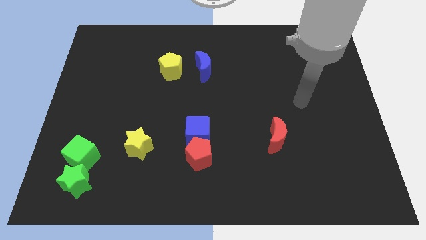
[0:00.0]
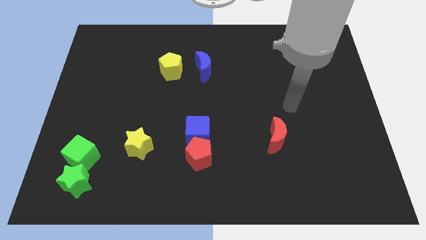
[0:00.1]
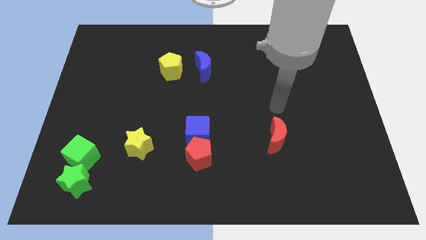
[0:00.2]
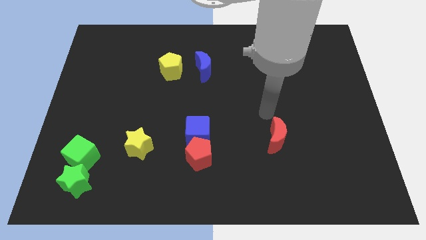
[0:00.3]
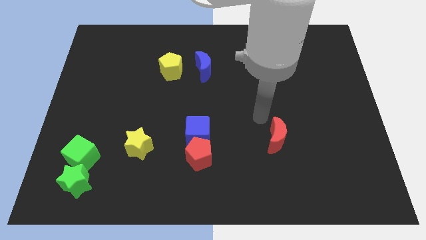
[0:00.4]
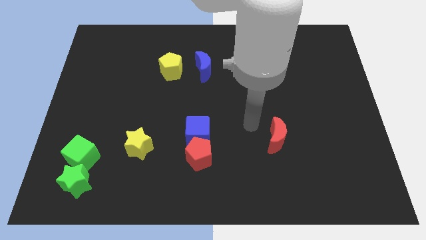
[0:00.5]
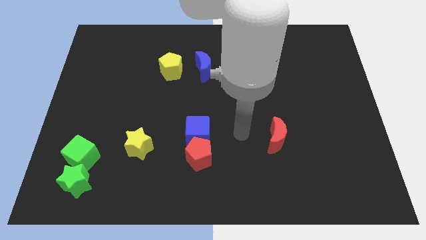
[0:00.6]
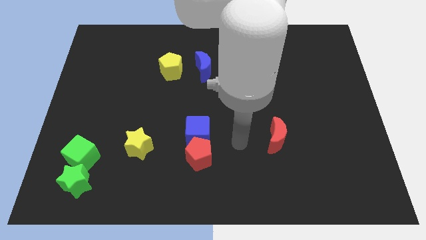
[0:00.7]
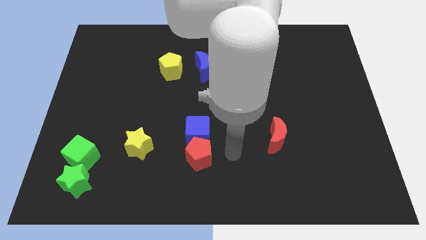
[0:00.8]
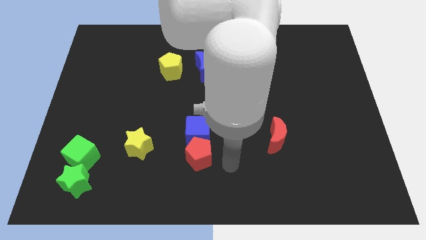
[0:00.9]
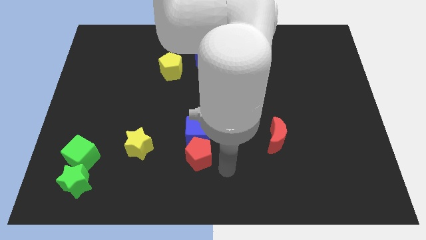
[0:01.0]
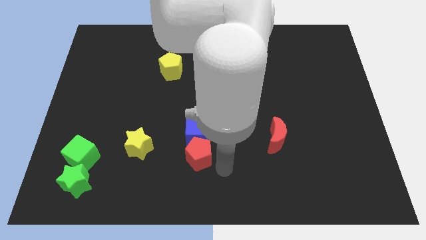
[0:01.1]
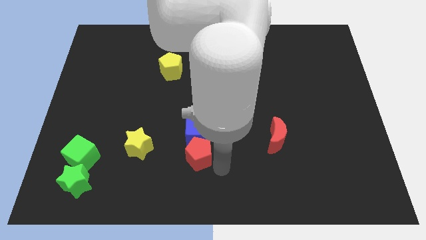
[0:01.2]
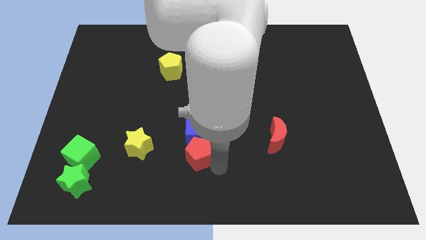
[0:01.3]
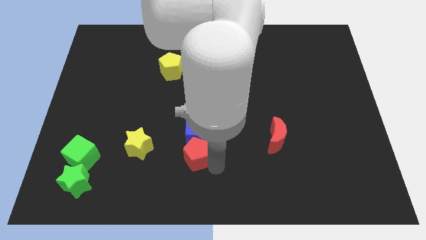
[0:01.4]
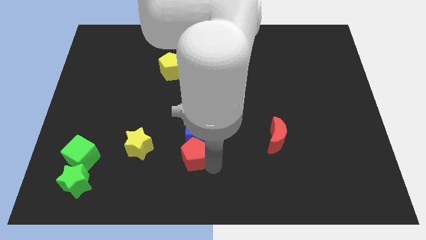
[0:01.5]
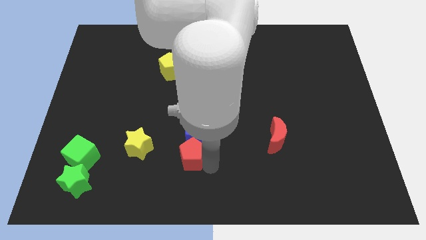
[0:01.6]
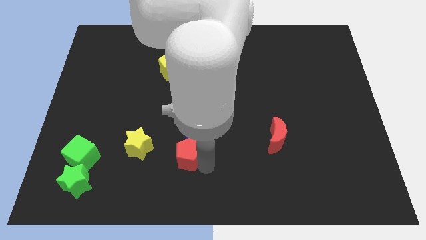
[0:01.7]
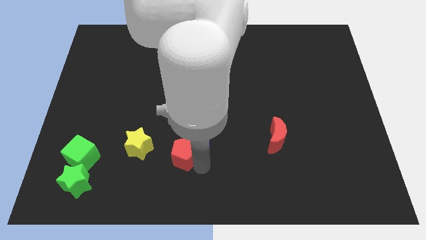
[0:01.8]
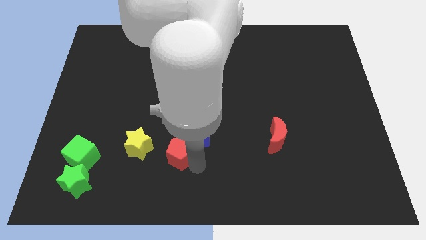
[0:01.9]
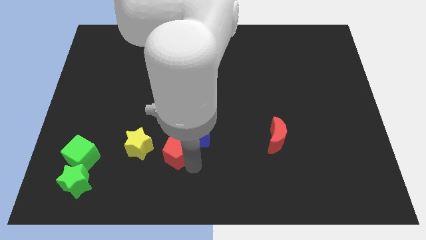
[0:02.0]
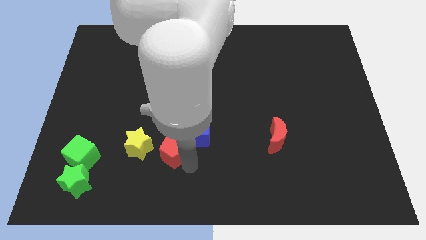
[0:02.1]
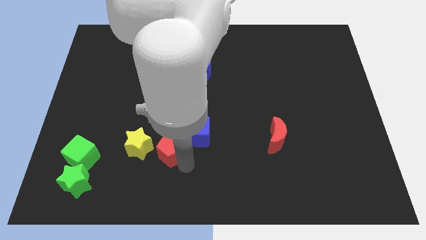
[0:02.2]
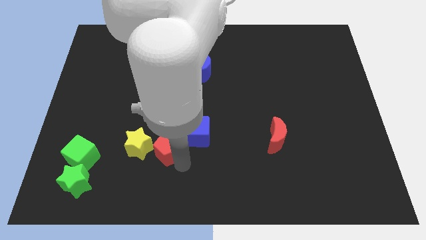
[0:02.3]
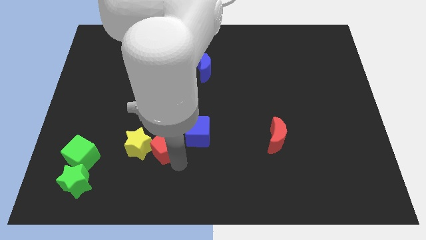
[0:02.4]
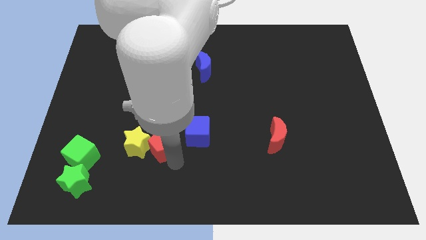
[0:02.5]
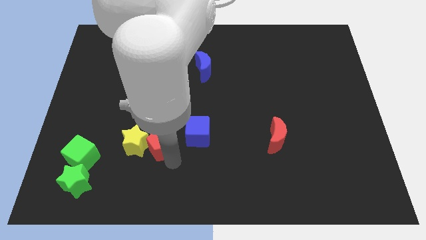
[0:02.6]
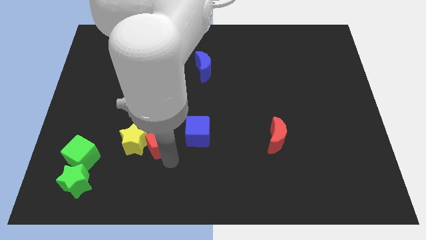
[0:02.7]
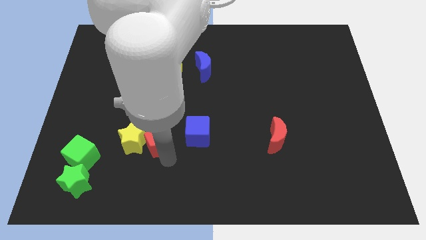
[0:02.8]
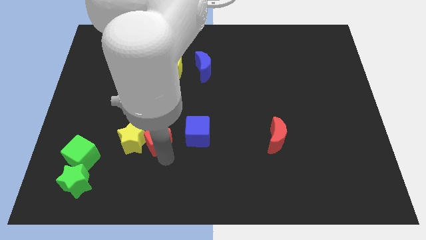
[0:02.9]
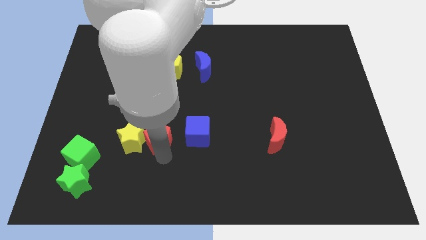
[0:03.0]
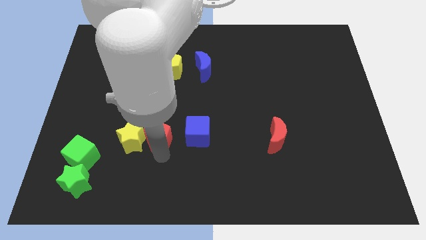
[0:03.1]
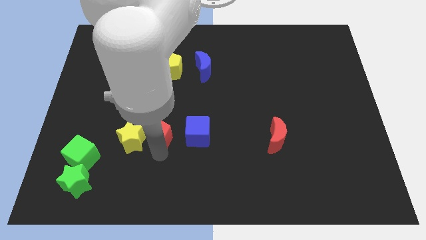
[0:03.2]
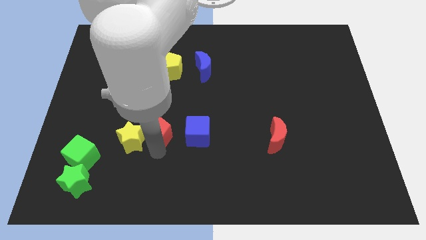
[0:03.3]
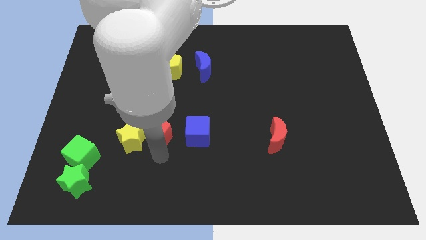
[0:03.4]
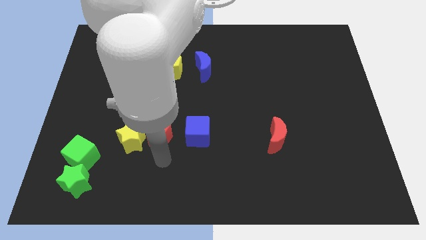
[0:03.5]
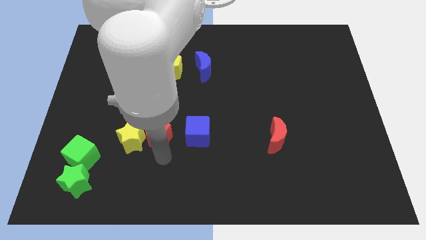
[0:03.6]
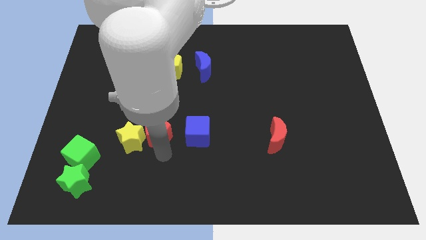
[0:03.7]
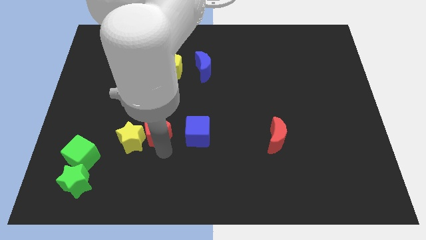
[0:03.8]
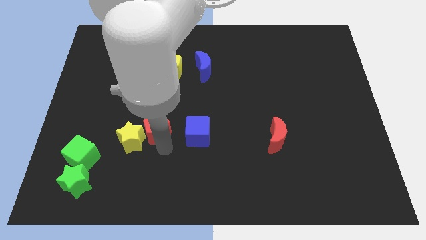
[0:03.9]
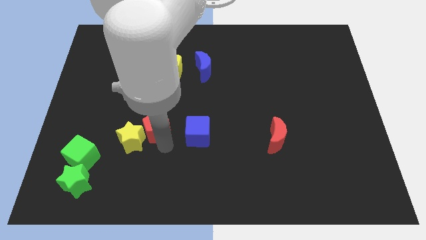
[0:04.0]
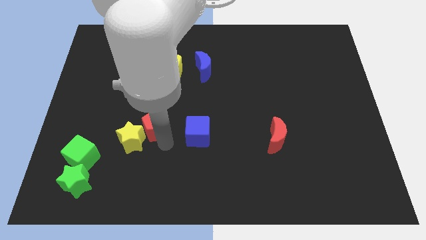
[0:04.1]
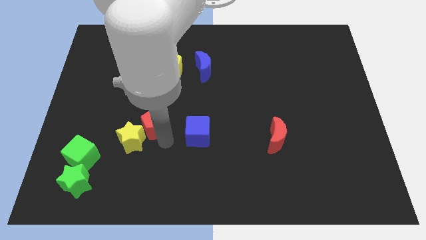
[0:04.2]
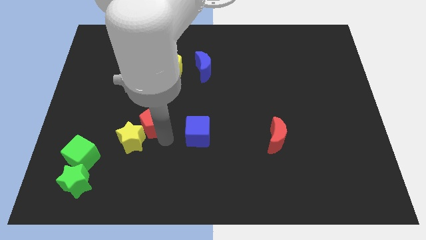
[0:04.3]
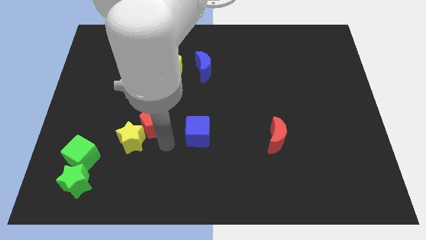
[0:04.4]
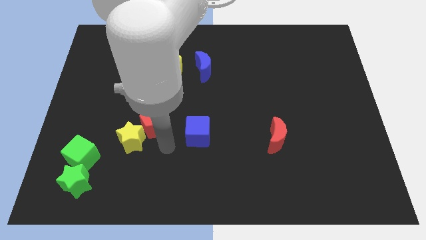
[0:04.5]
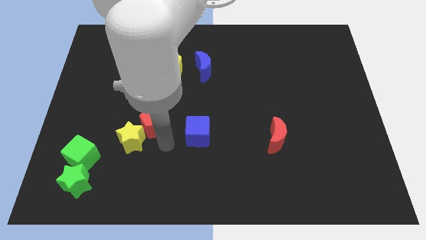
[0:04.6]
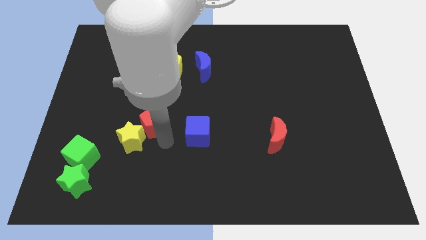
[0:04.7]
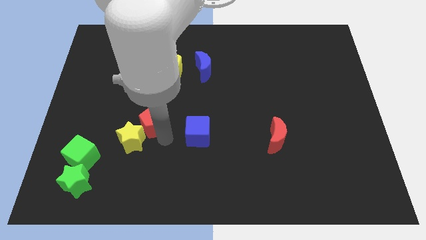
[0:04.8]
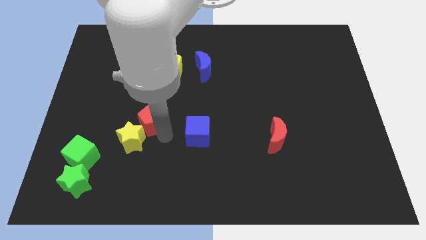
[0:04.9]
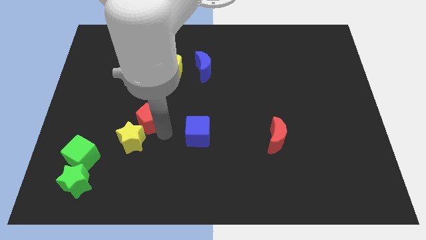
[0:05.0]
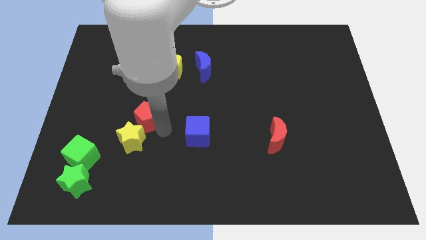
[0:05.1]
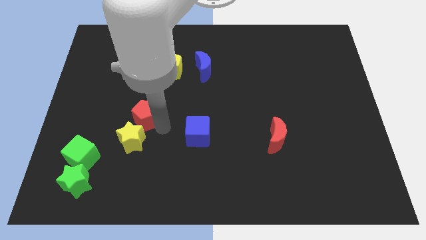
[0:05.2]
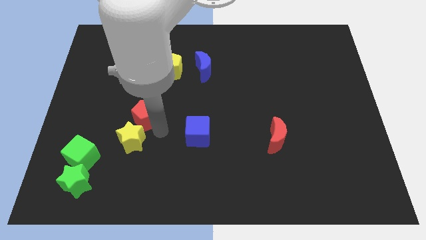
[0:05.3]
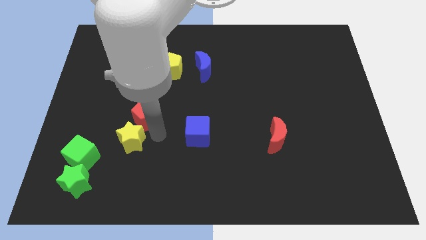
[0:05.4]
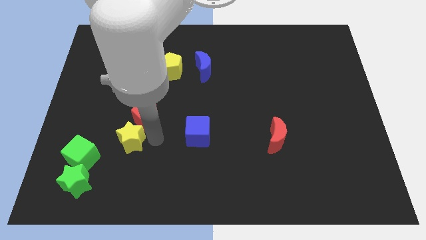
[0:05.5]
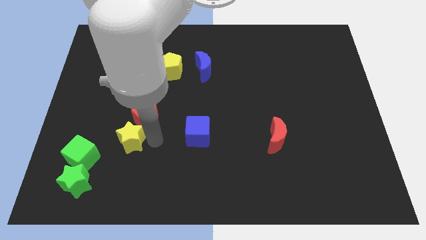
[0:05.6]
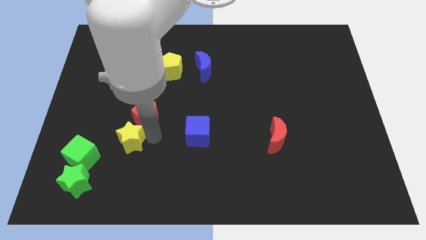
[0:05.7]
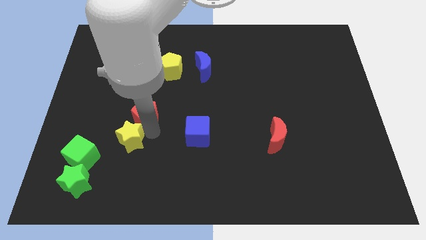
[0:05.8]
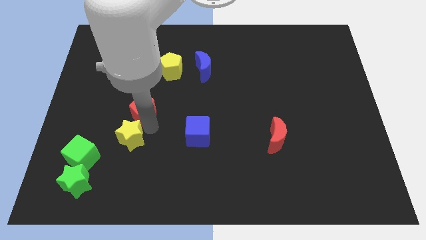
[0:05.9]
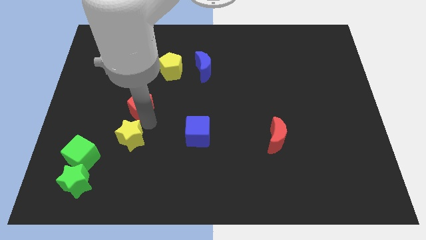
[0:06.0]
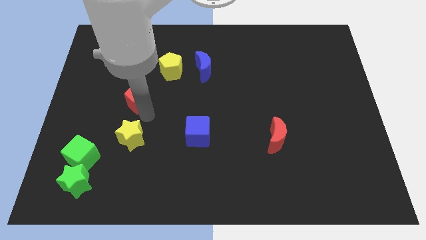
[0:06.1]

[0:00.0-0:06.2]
move the red pentagon up and to the left

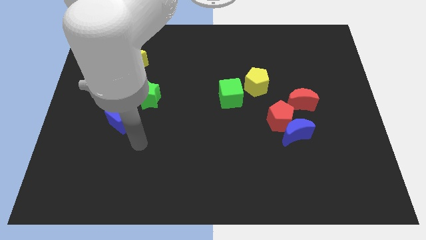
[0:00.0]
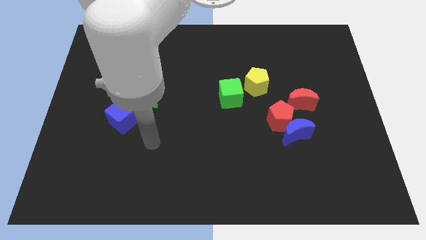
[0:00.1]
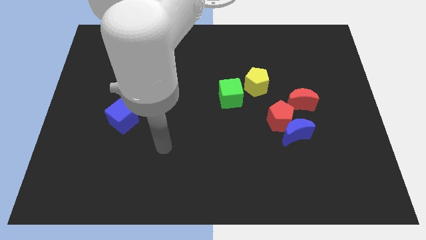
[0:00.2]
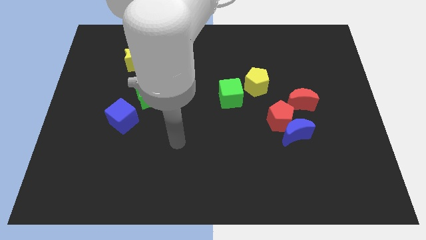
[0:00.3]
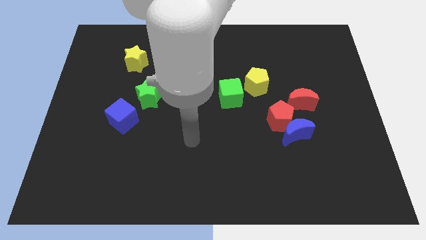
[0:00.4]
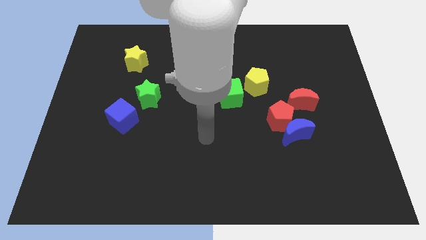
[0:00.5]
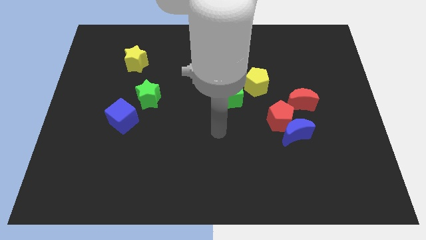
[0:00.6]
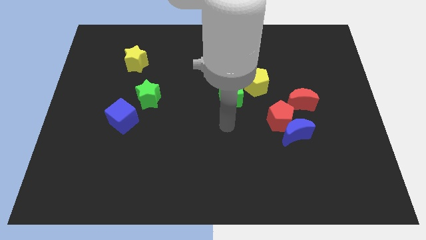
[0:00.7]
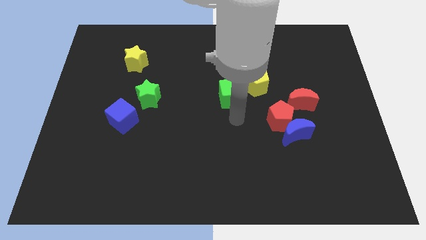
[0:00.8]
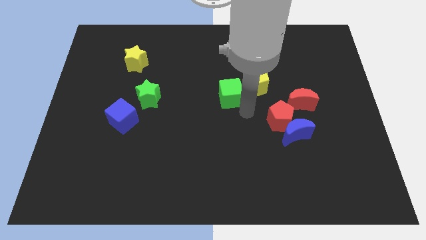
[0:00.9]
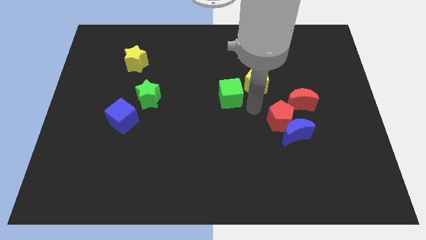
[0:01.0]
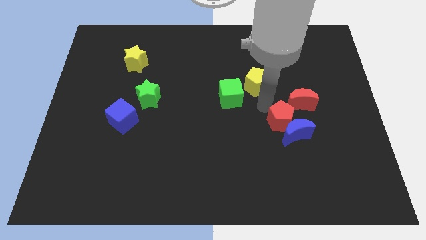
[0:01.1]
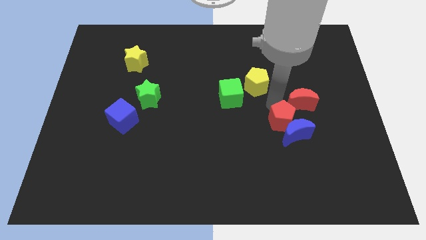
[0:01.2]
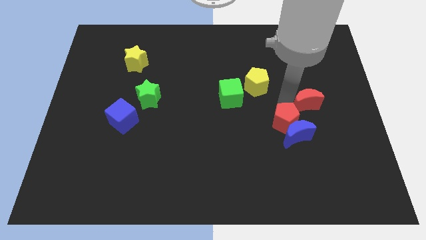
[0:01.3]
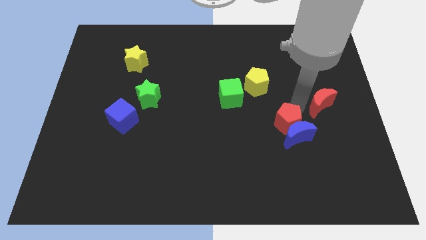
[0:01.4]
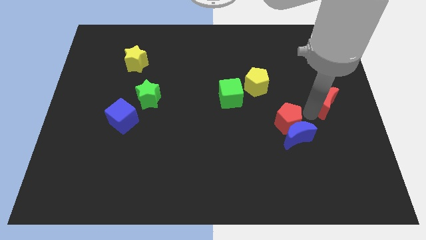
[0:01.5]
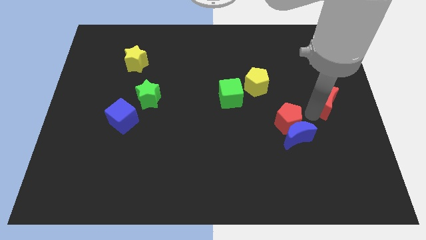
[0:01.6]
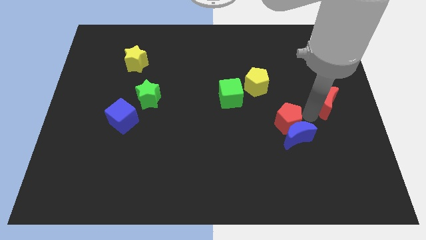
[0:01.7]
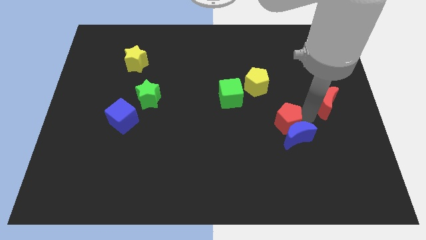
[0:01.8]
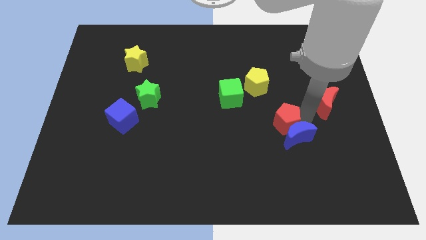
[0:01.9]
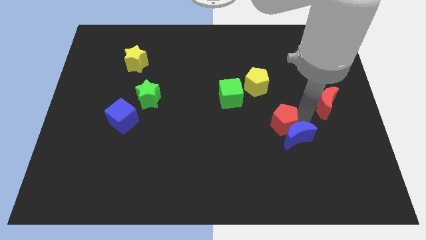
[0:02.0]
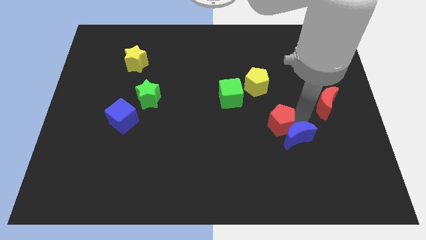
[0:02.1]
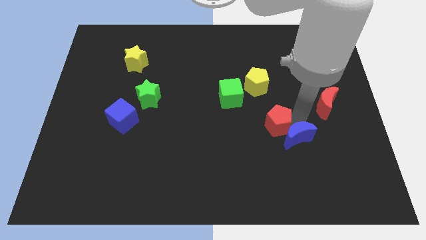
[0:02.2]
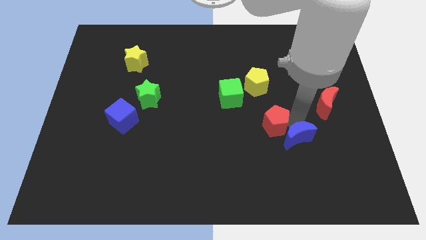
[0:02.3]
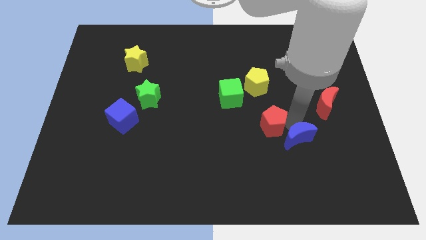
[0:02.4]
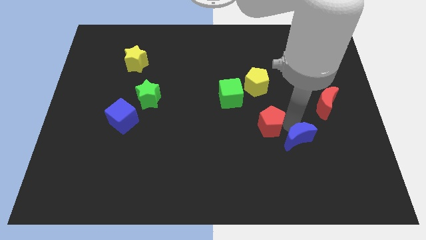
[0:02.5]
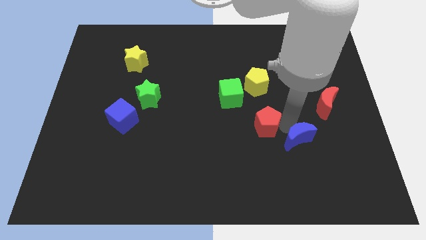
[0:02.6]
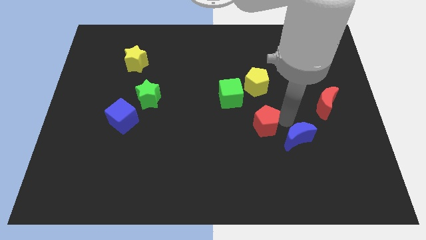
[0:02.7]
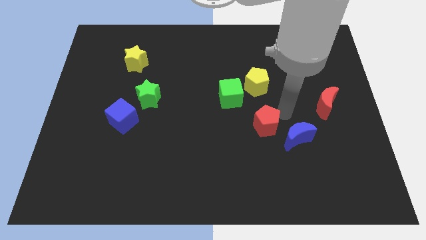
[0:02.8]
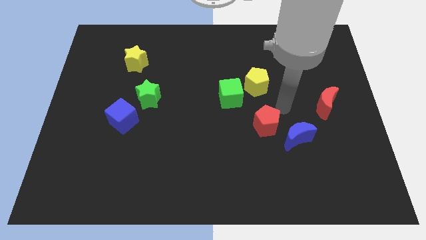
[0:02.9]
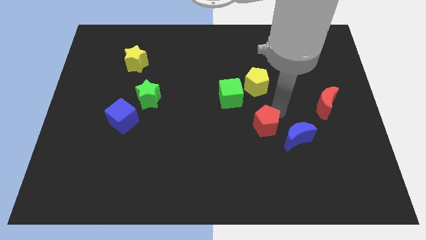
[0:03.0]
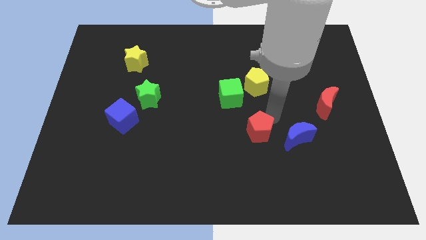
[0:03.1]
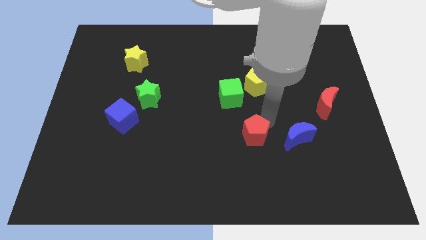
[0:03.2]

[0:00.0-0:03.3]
push the red pentagon somewhat down and to the left
